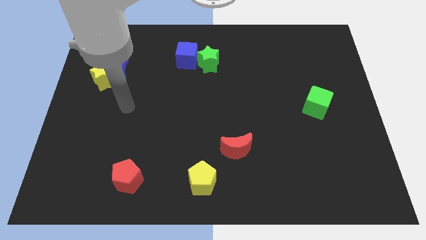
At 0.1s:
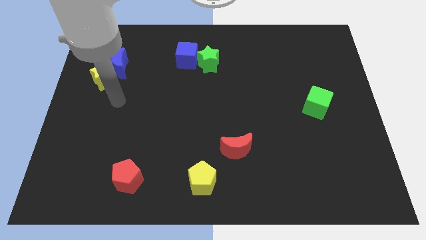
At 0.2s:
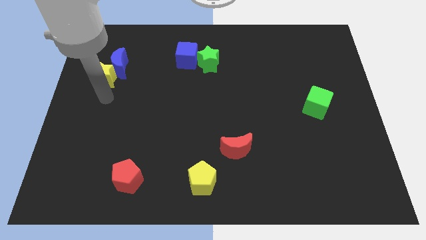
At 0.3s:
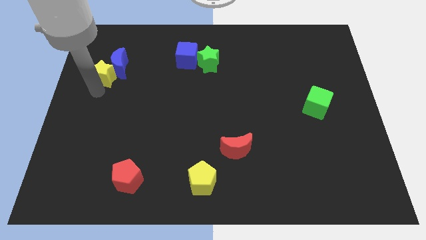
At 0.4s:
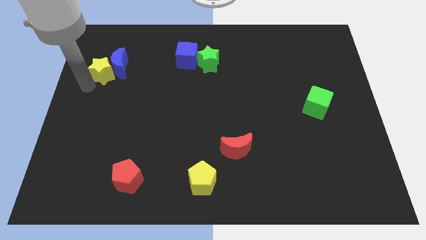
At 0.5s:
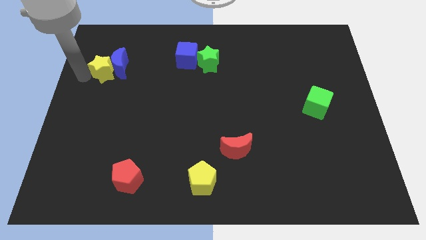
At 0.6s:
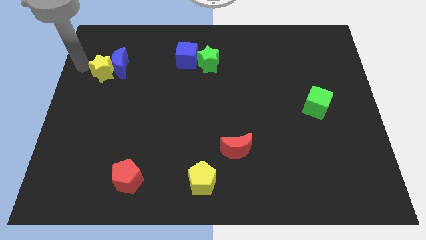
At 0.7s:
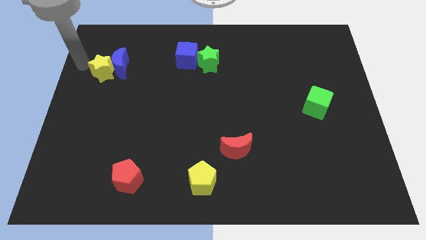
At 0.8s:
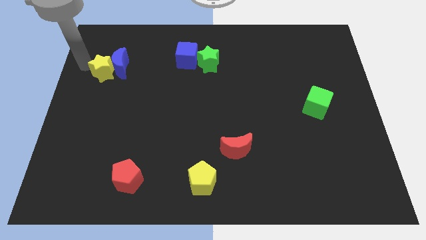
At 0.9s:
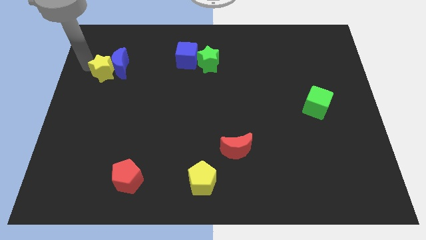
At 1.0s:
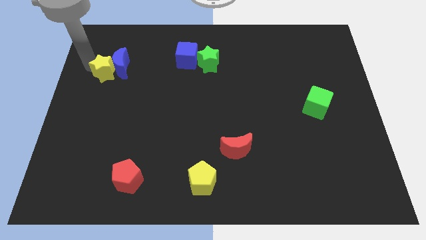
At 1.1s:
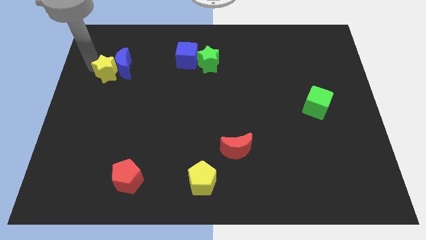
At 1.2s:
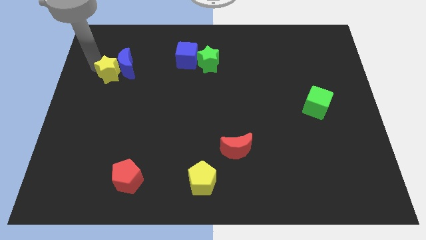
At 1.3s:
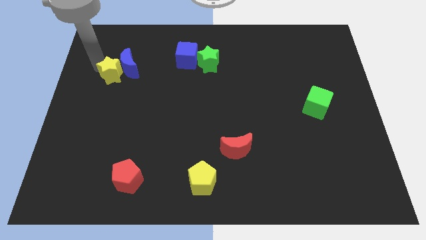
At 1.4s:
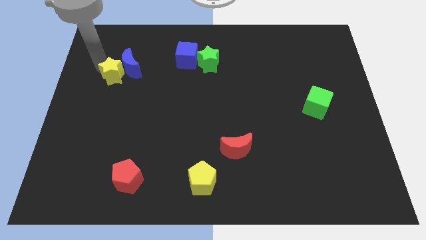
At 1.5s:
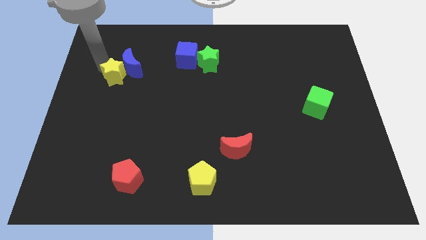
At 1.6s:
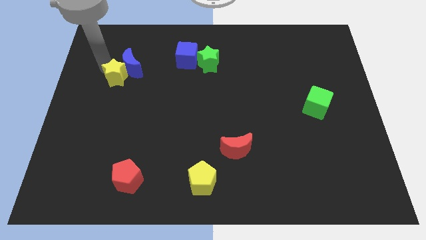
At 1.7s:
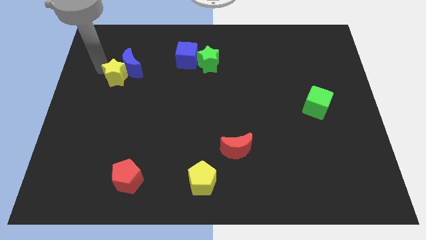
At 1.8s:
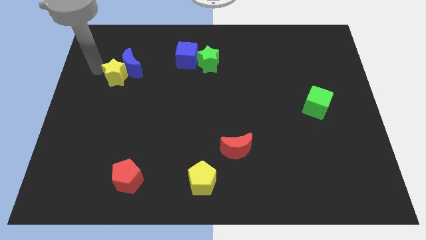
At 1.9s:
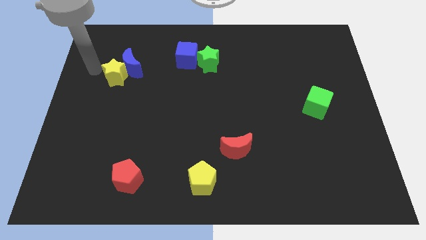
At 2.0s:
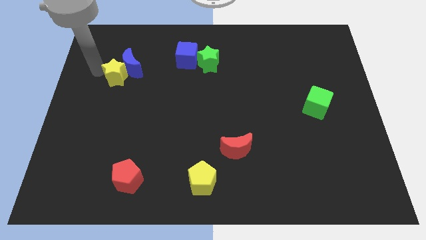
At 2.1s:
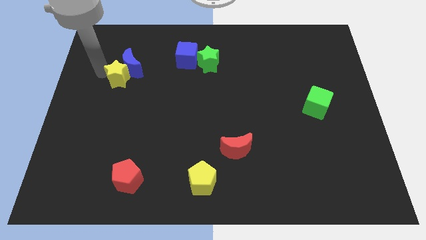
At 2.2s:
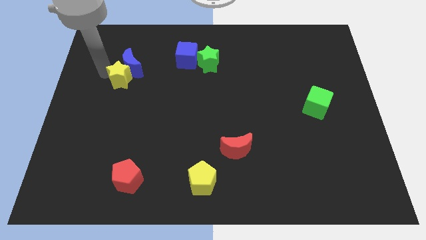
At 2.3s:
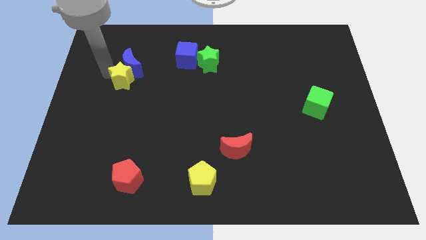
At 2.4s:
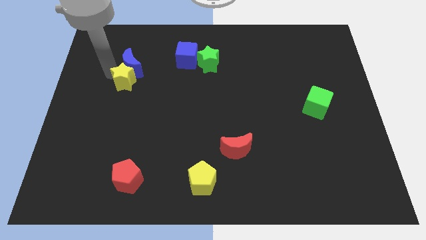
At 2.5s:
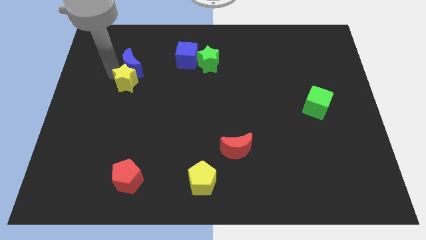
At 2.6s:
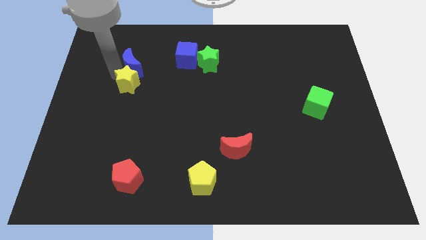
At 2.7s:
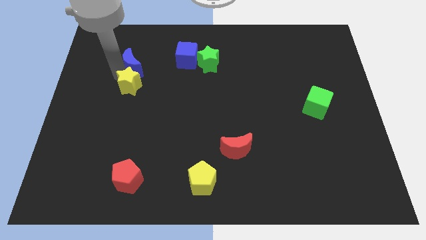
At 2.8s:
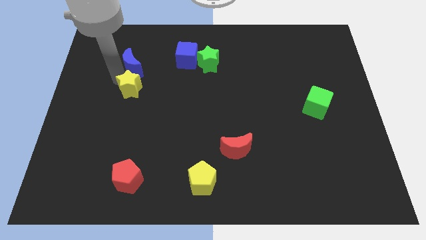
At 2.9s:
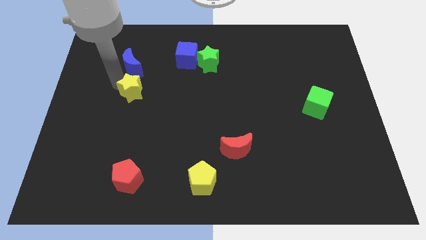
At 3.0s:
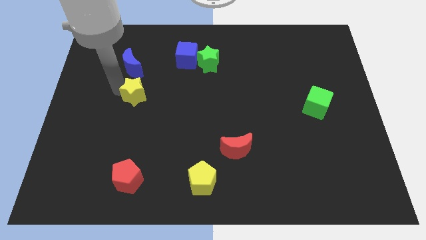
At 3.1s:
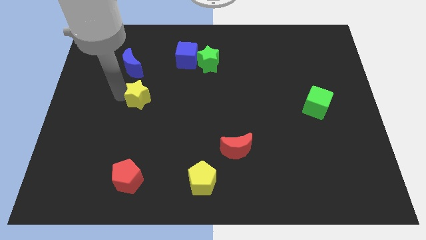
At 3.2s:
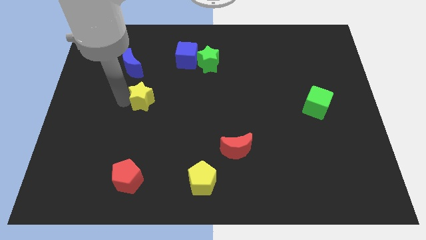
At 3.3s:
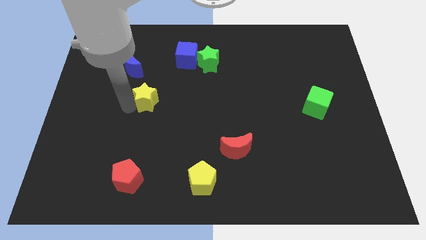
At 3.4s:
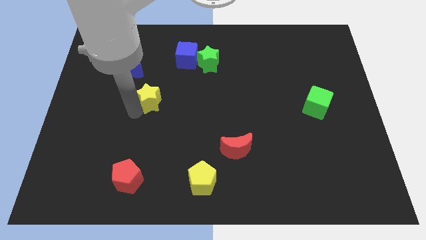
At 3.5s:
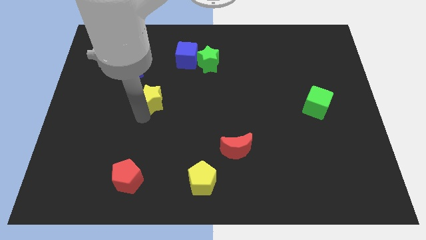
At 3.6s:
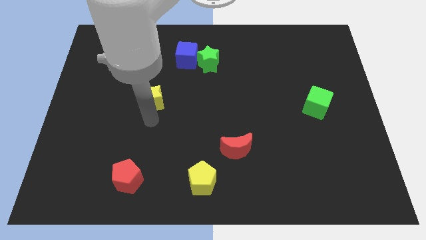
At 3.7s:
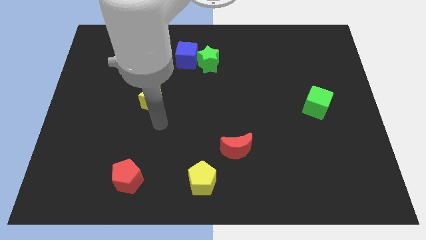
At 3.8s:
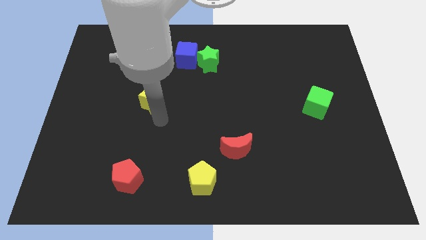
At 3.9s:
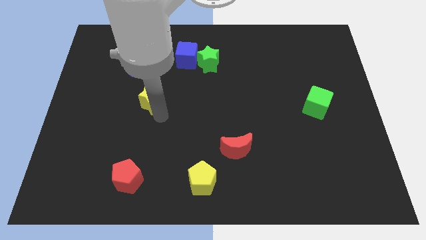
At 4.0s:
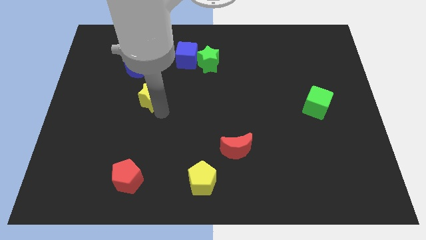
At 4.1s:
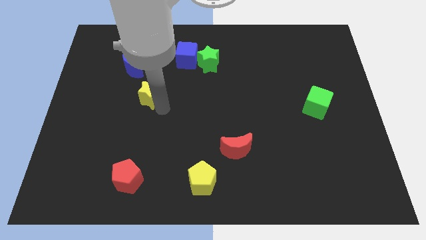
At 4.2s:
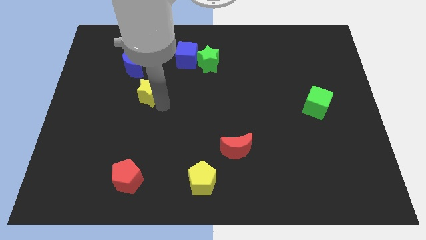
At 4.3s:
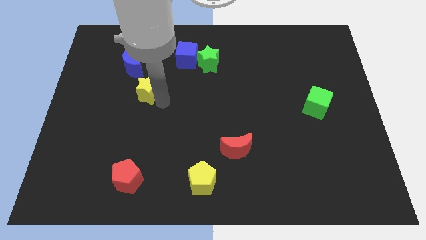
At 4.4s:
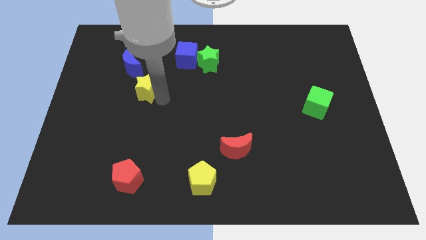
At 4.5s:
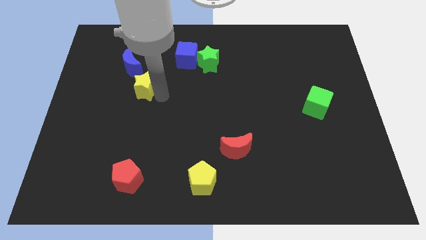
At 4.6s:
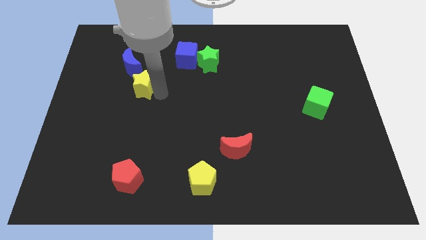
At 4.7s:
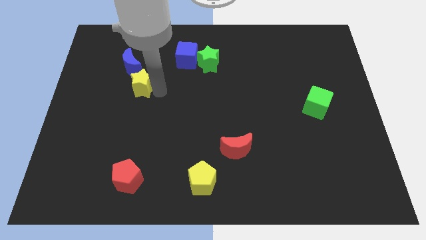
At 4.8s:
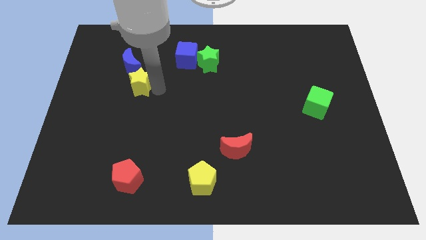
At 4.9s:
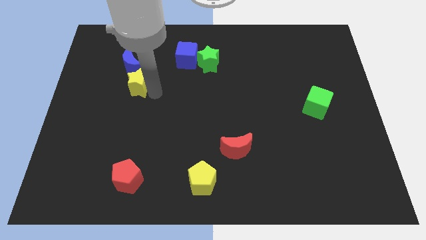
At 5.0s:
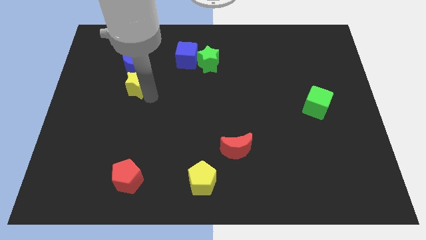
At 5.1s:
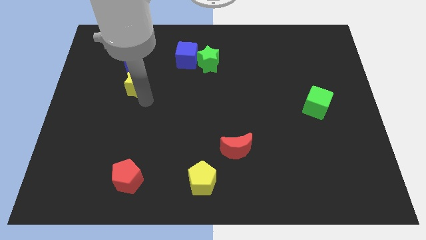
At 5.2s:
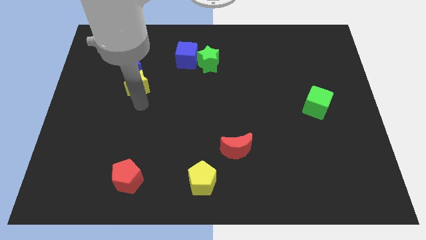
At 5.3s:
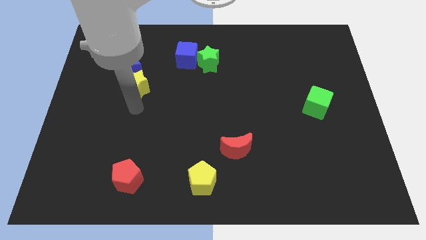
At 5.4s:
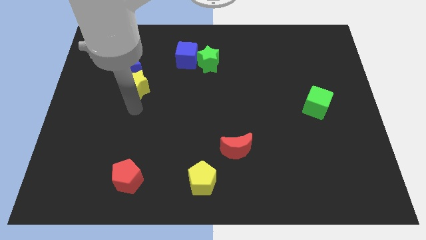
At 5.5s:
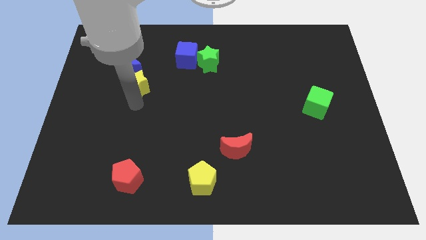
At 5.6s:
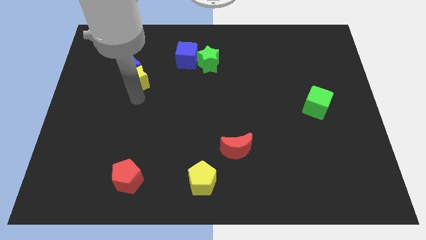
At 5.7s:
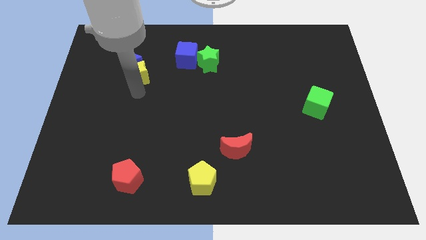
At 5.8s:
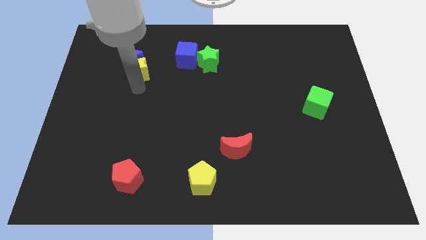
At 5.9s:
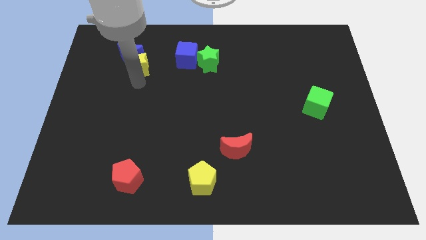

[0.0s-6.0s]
push the yellow star left of the blue cube

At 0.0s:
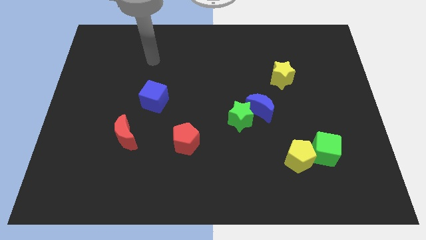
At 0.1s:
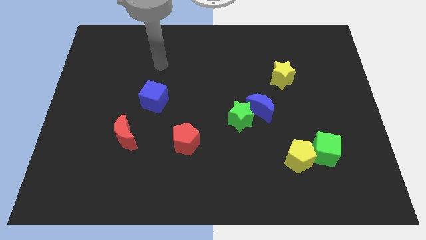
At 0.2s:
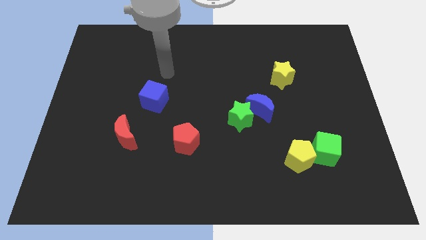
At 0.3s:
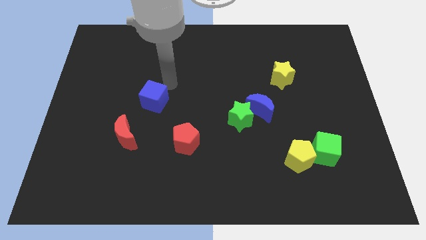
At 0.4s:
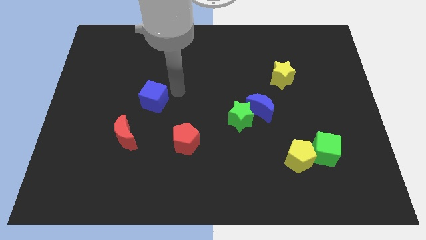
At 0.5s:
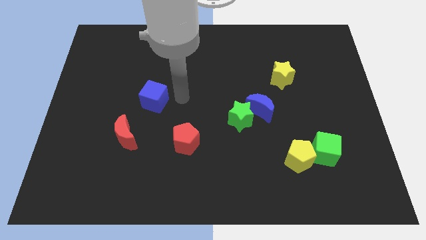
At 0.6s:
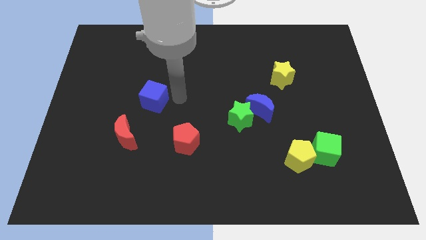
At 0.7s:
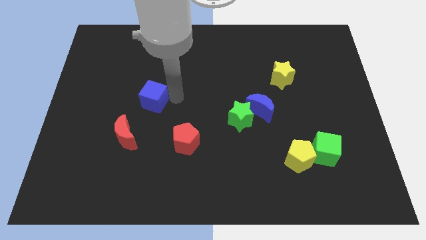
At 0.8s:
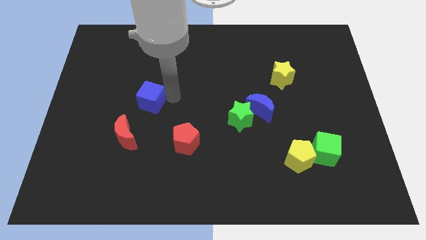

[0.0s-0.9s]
push the blue cube above the red moon
